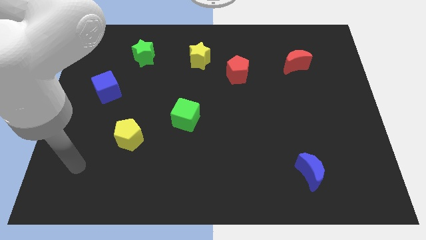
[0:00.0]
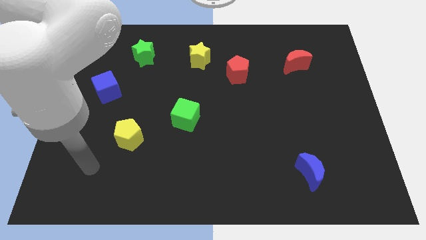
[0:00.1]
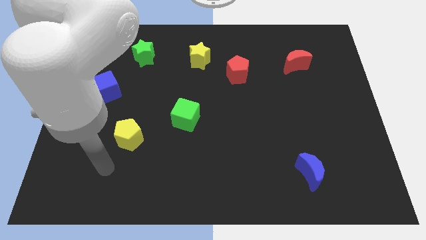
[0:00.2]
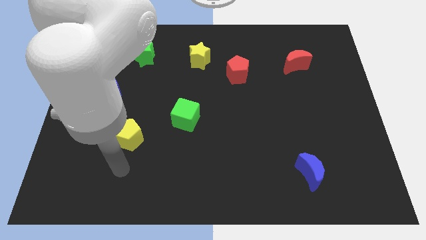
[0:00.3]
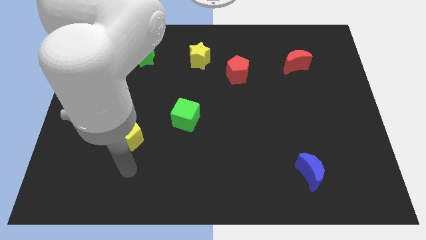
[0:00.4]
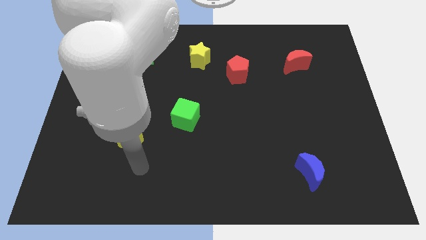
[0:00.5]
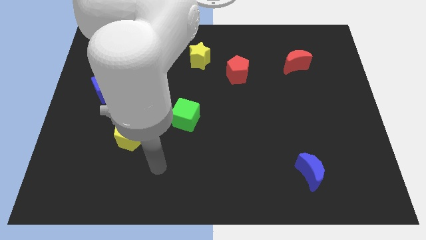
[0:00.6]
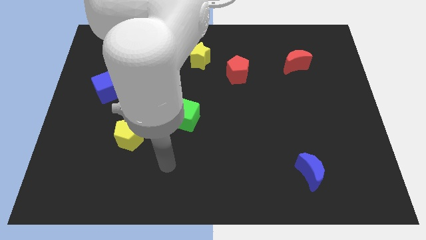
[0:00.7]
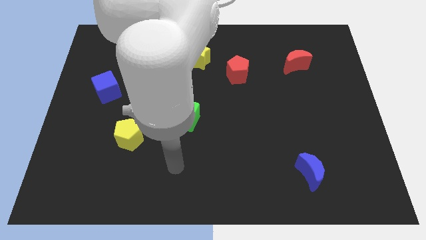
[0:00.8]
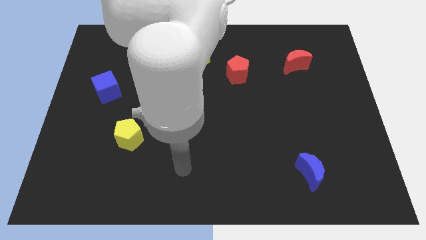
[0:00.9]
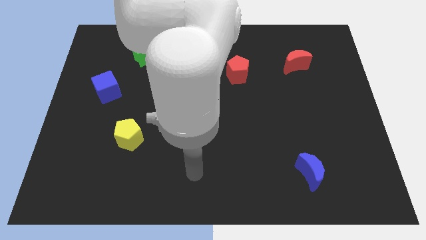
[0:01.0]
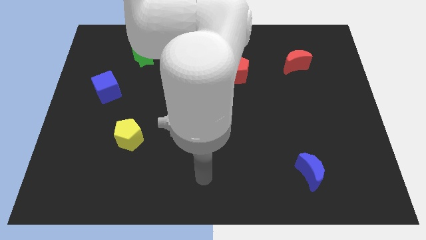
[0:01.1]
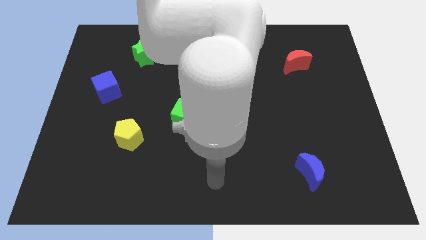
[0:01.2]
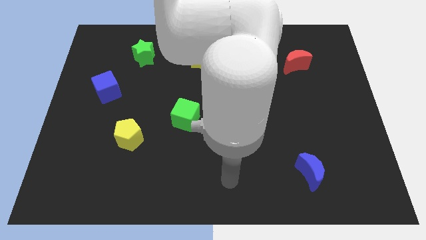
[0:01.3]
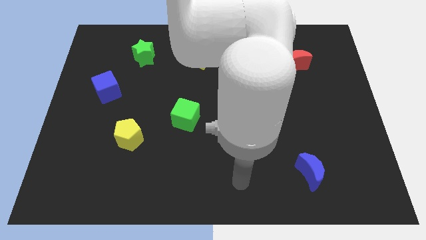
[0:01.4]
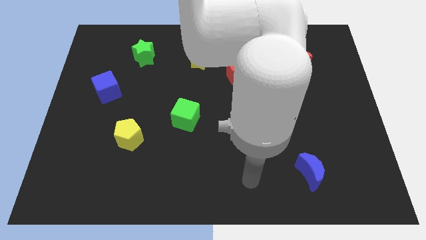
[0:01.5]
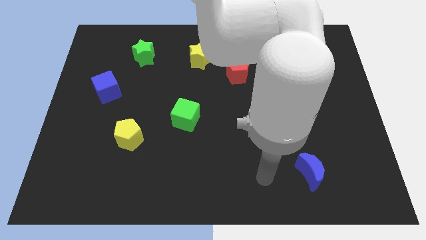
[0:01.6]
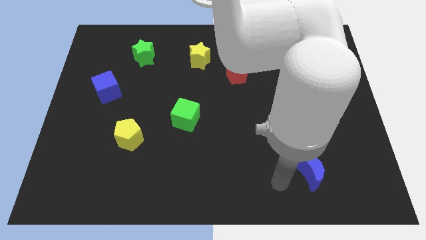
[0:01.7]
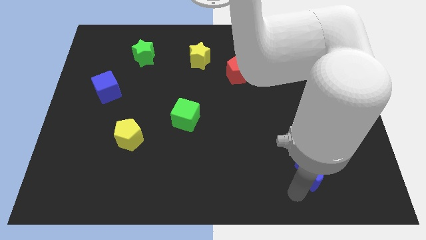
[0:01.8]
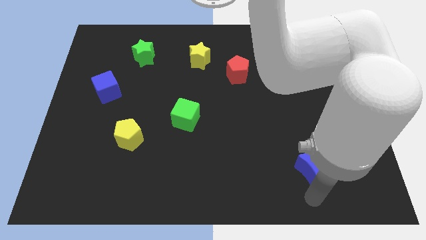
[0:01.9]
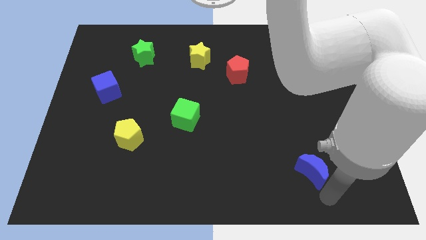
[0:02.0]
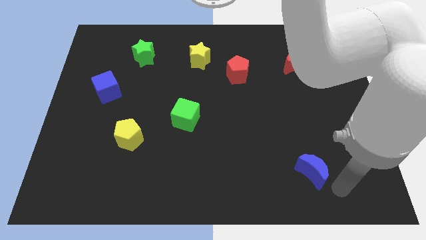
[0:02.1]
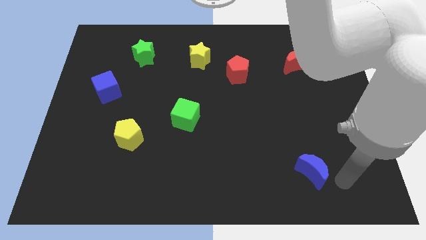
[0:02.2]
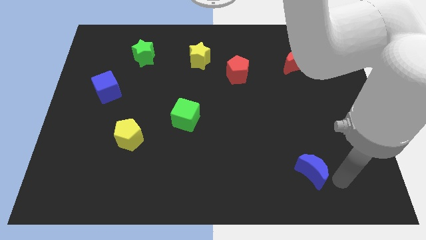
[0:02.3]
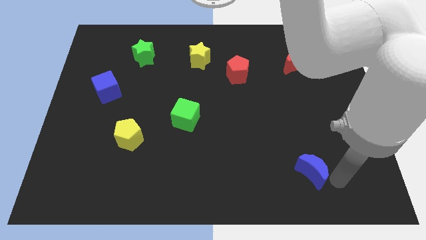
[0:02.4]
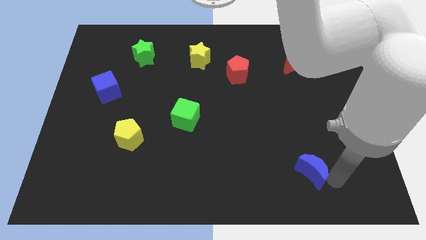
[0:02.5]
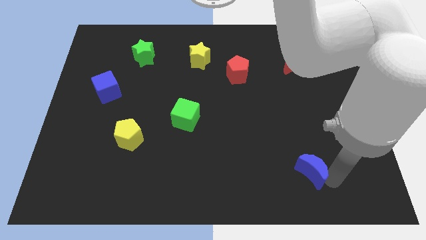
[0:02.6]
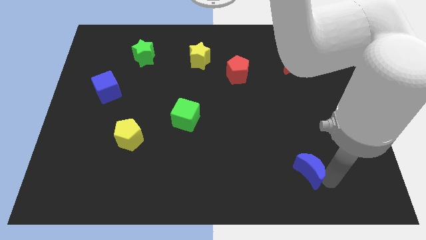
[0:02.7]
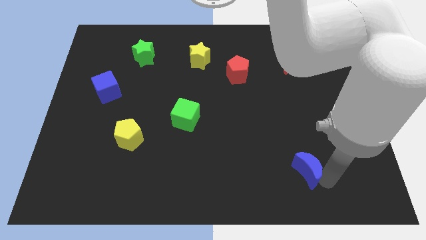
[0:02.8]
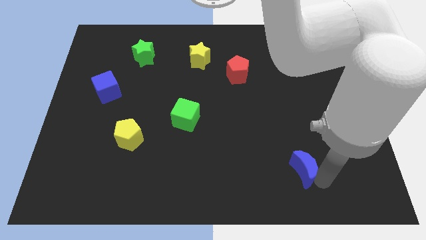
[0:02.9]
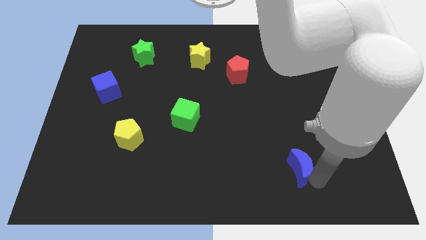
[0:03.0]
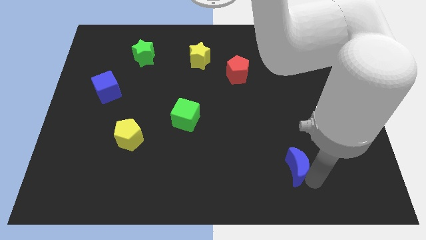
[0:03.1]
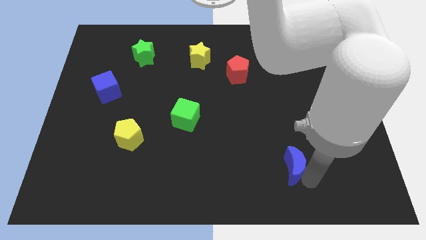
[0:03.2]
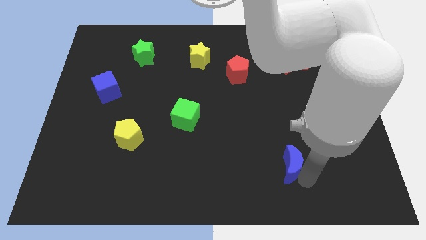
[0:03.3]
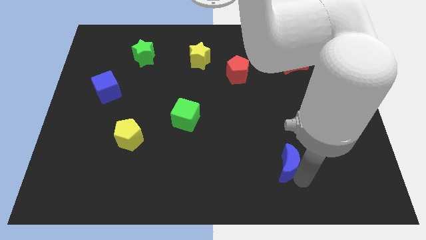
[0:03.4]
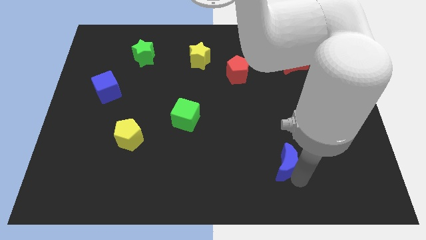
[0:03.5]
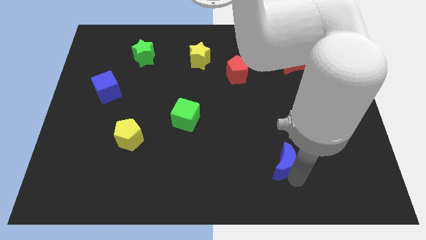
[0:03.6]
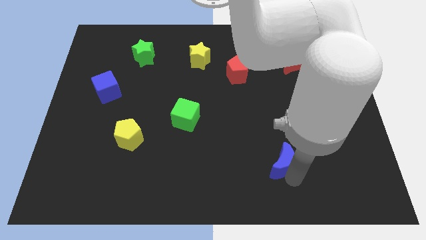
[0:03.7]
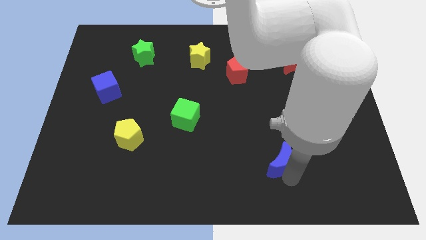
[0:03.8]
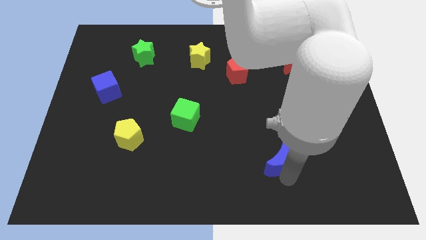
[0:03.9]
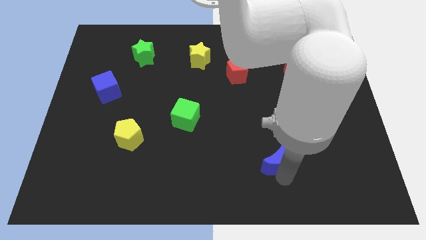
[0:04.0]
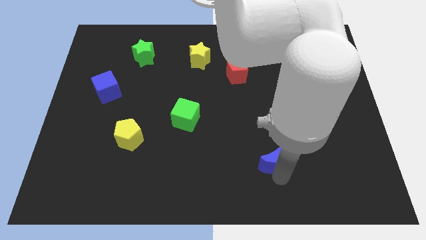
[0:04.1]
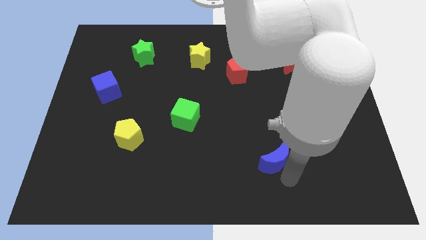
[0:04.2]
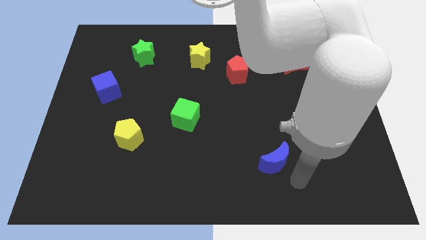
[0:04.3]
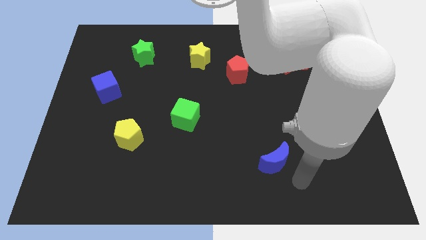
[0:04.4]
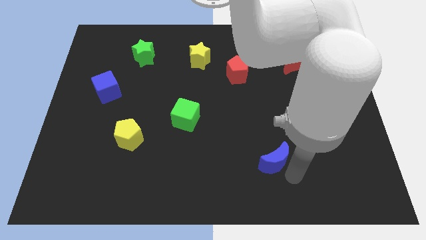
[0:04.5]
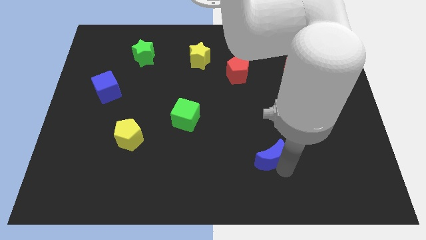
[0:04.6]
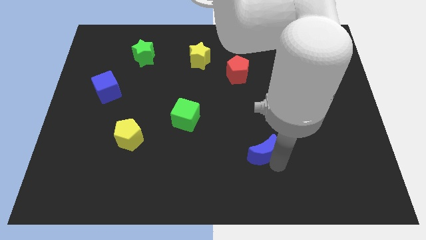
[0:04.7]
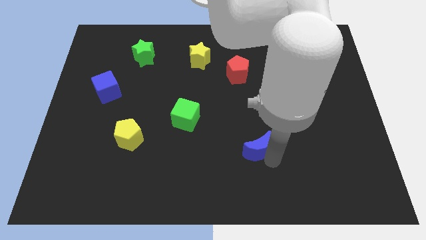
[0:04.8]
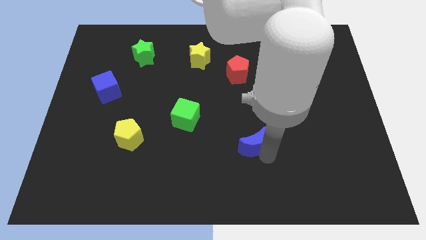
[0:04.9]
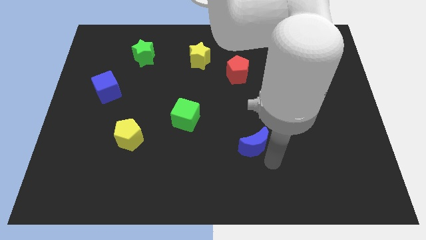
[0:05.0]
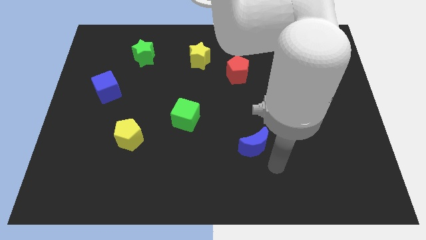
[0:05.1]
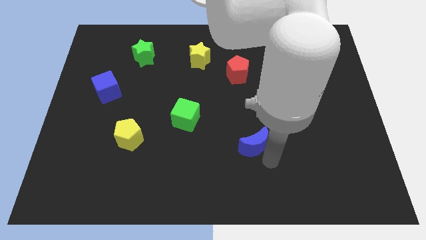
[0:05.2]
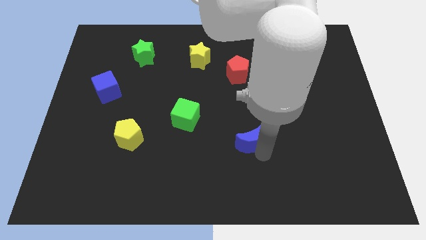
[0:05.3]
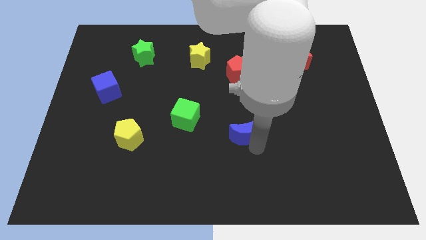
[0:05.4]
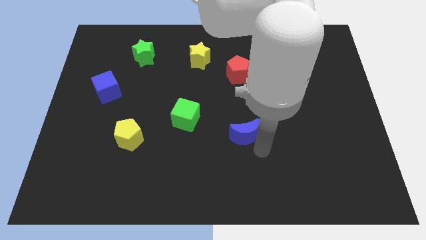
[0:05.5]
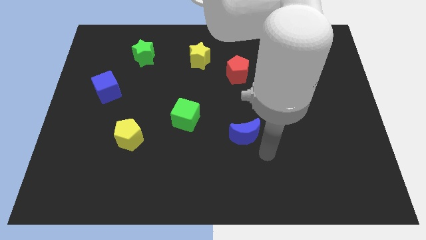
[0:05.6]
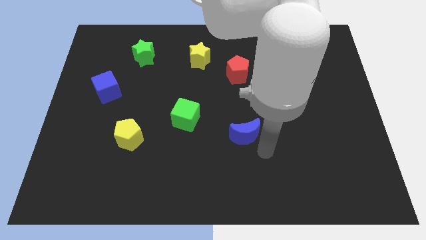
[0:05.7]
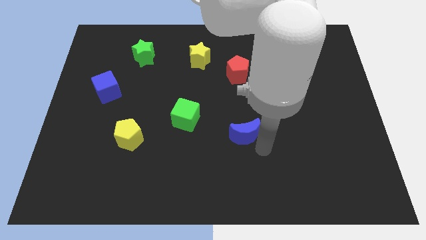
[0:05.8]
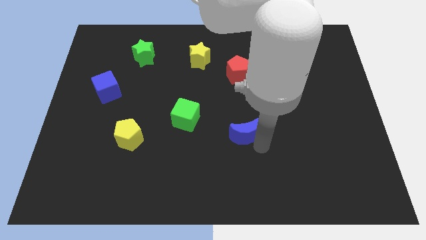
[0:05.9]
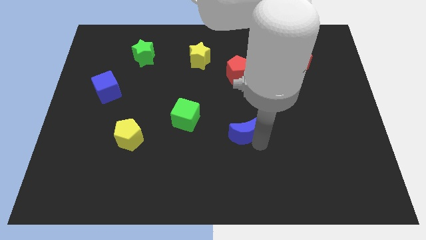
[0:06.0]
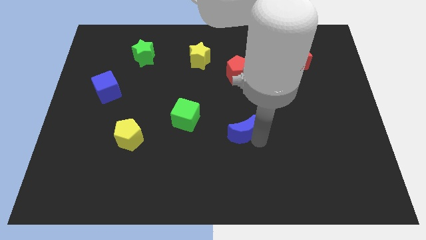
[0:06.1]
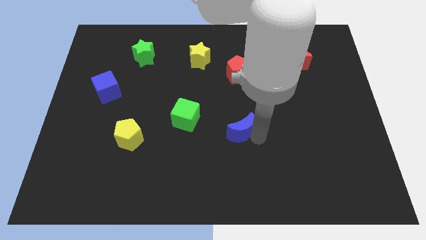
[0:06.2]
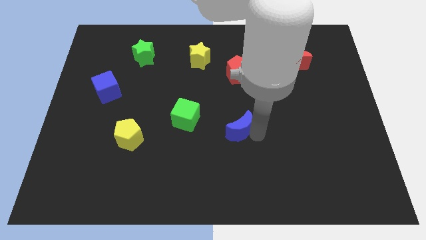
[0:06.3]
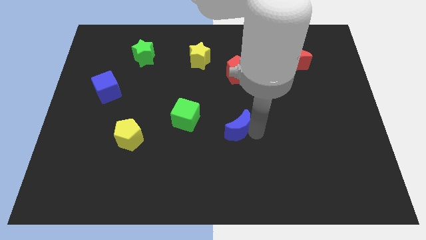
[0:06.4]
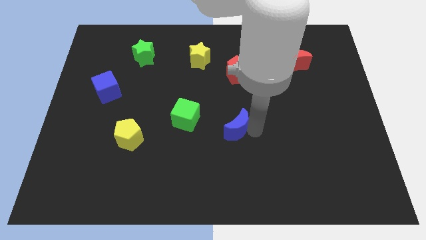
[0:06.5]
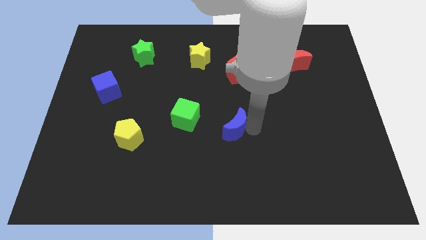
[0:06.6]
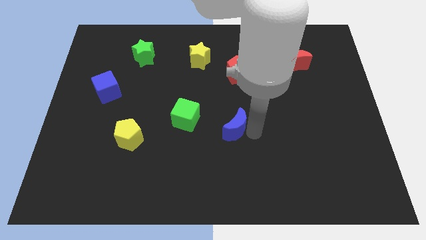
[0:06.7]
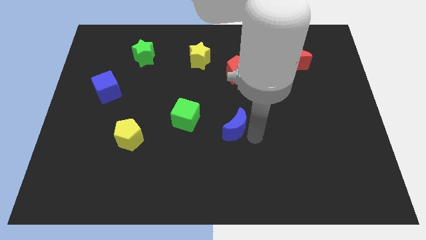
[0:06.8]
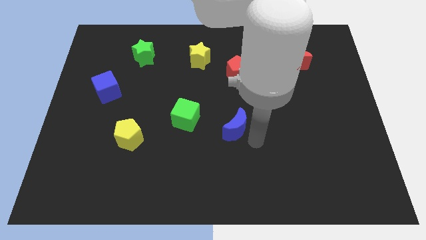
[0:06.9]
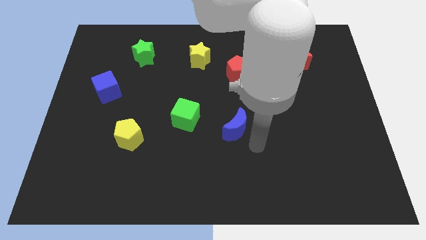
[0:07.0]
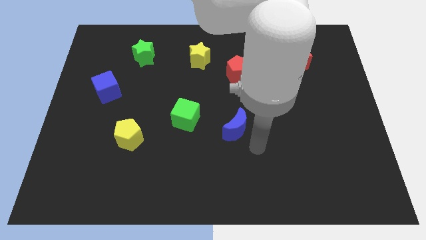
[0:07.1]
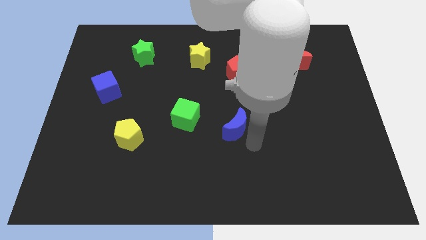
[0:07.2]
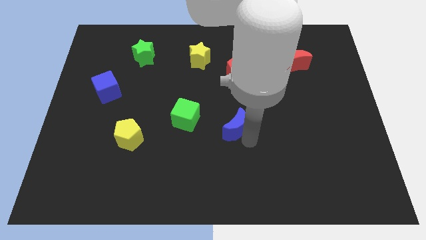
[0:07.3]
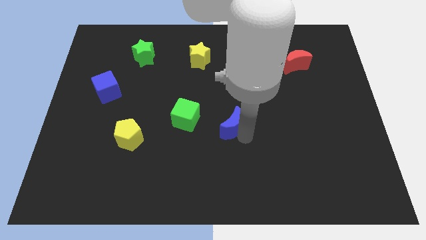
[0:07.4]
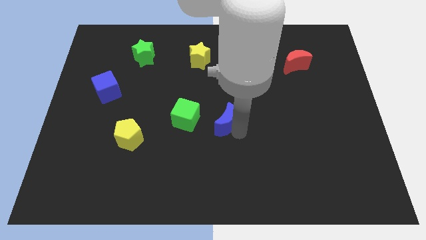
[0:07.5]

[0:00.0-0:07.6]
move the blue moon upwards and left diagonally

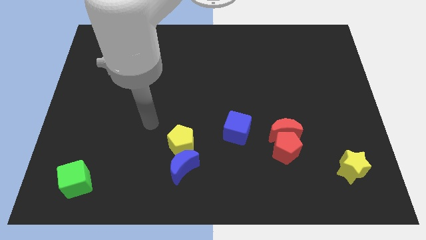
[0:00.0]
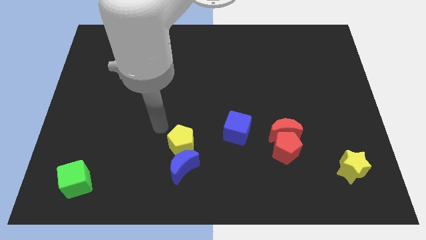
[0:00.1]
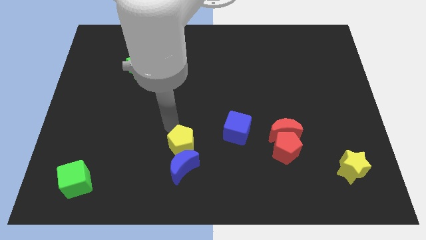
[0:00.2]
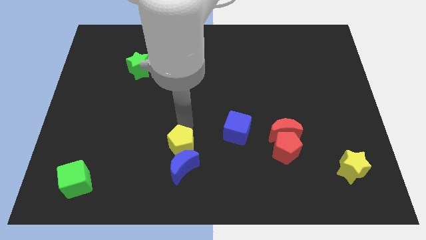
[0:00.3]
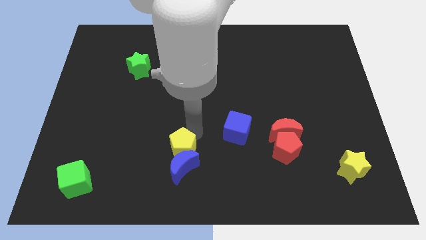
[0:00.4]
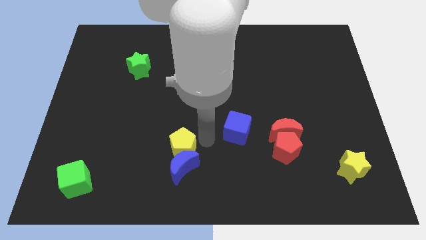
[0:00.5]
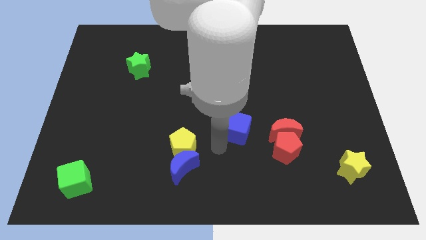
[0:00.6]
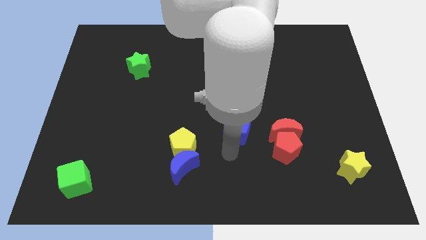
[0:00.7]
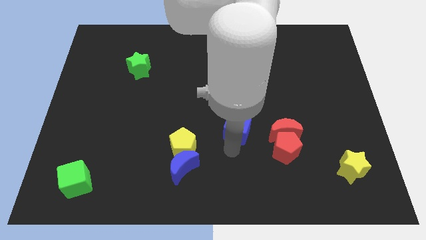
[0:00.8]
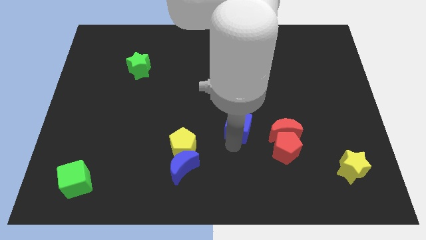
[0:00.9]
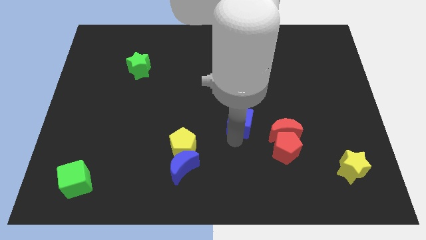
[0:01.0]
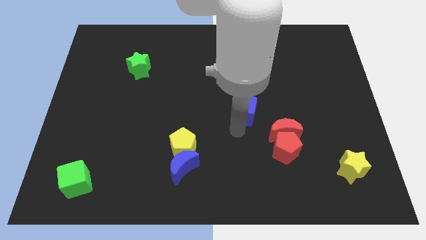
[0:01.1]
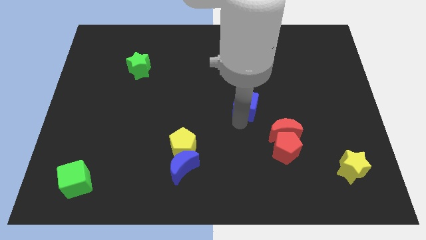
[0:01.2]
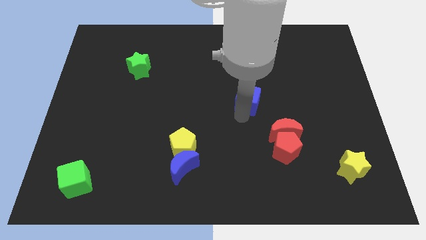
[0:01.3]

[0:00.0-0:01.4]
push the blue cube a bit upwards
